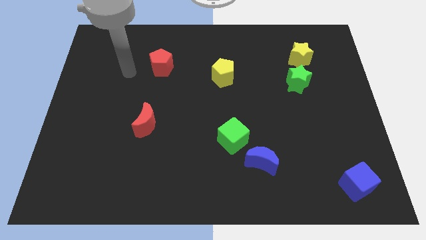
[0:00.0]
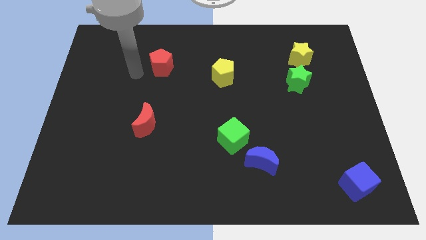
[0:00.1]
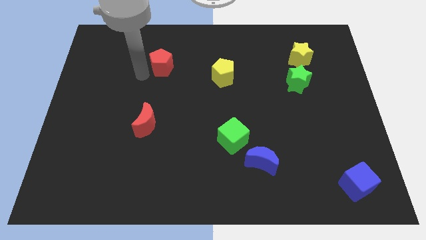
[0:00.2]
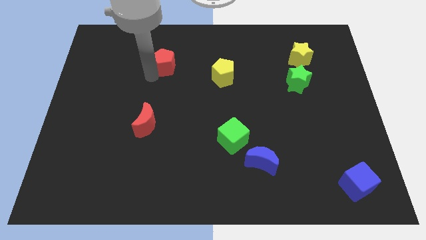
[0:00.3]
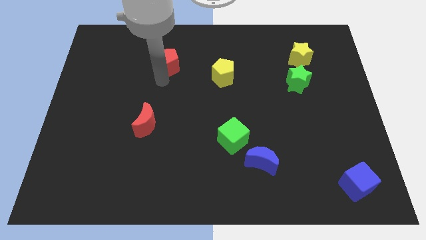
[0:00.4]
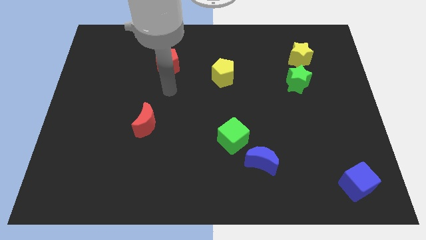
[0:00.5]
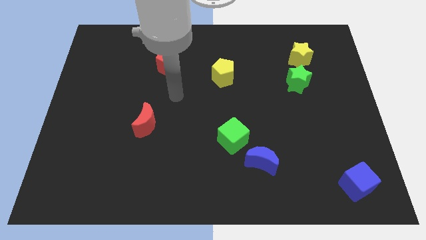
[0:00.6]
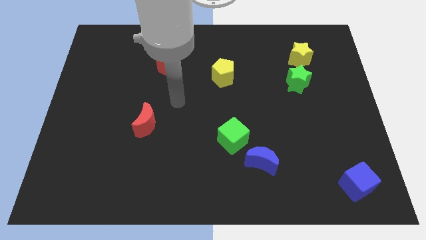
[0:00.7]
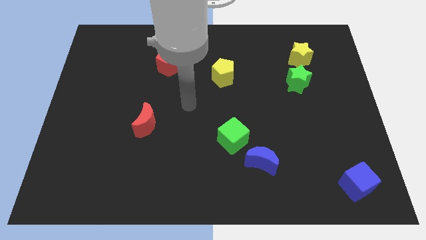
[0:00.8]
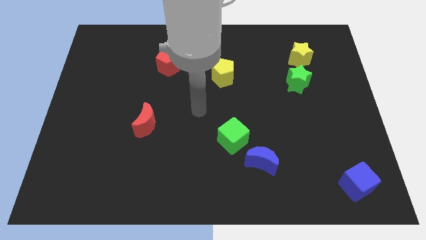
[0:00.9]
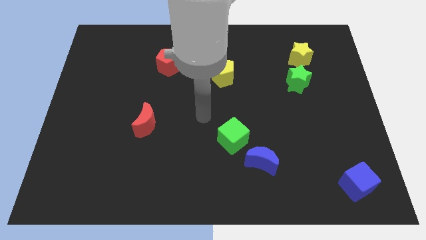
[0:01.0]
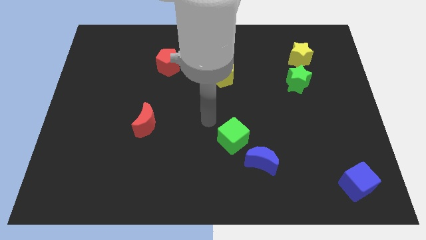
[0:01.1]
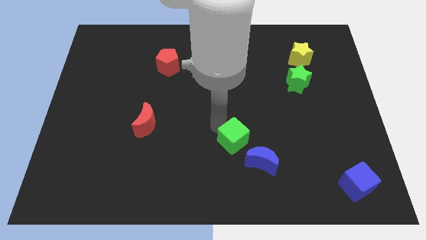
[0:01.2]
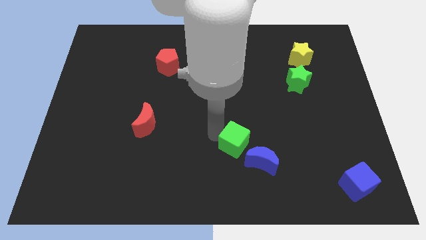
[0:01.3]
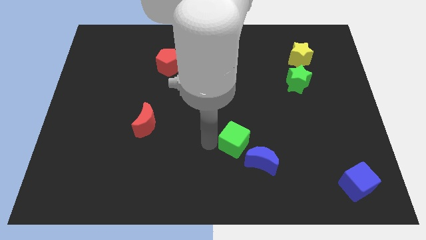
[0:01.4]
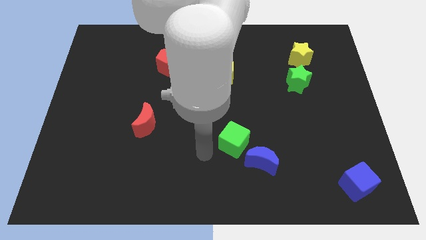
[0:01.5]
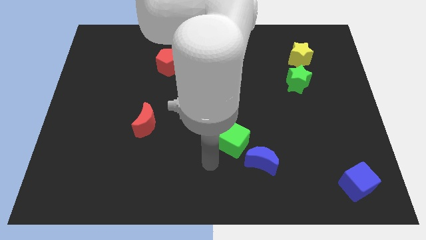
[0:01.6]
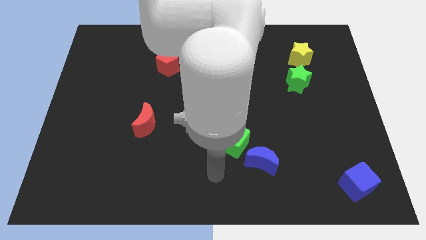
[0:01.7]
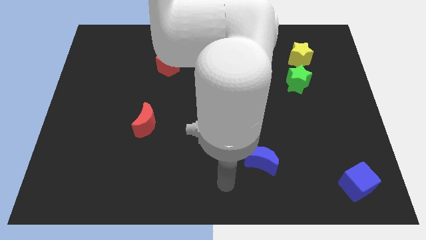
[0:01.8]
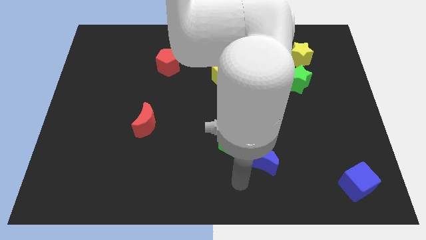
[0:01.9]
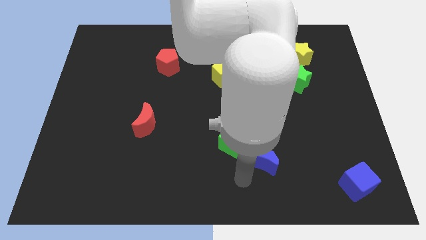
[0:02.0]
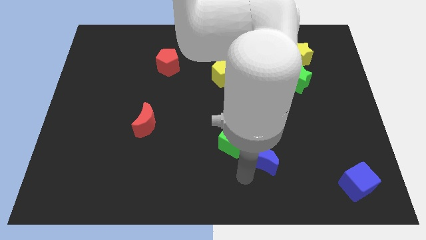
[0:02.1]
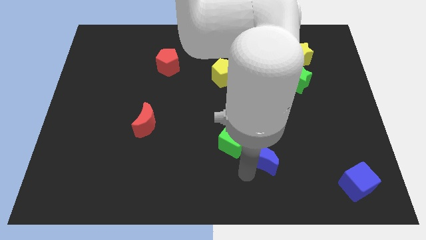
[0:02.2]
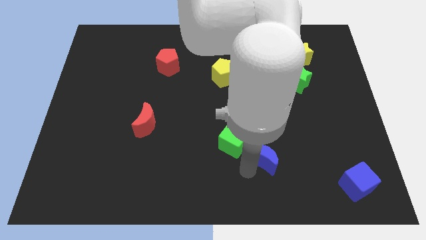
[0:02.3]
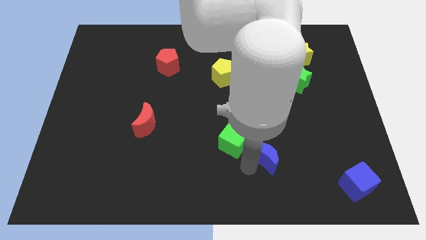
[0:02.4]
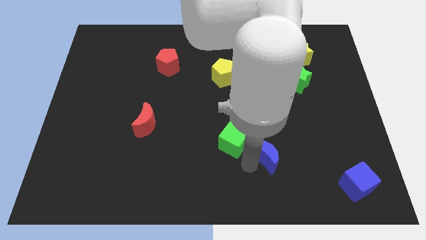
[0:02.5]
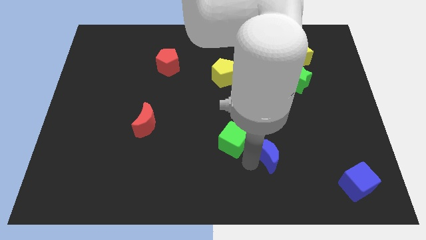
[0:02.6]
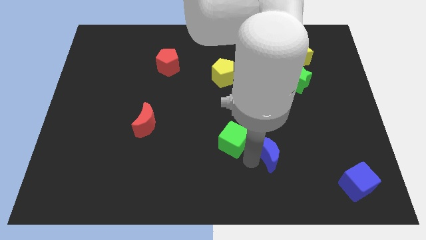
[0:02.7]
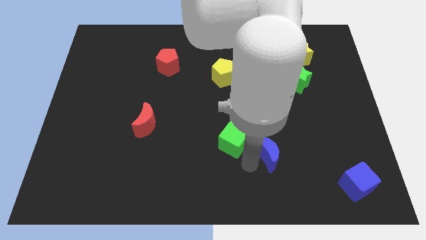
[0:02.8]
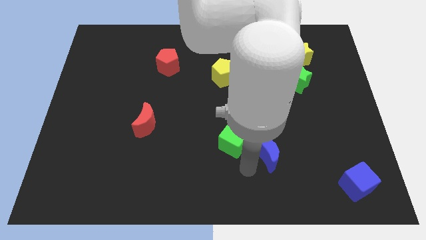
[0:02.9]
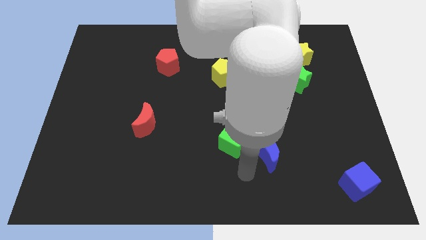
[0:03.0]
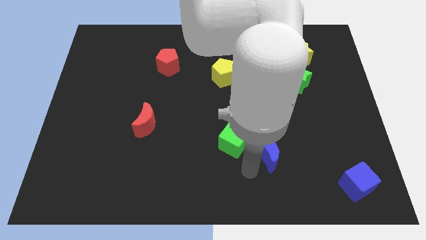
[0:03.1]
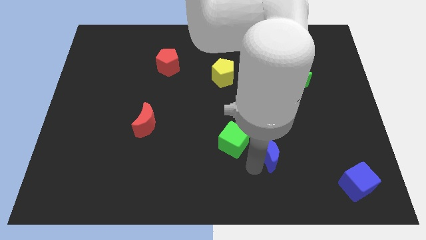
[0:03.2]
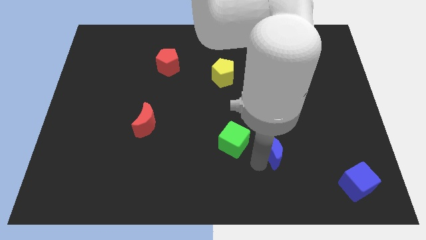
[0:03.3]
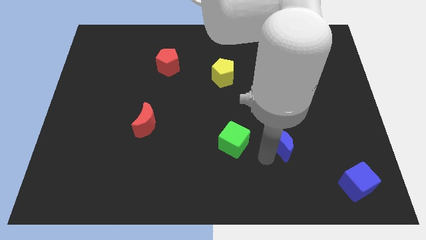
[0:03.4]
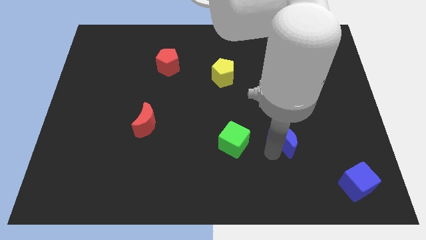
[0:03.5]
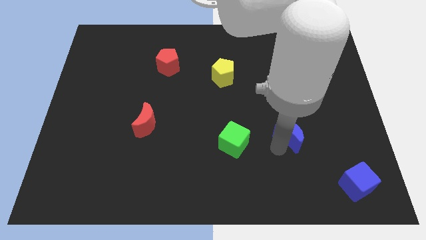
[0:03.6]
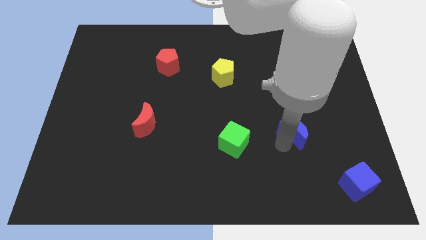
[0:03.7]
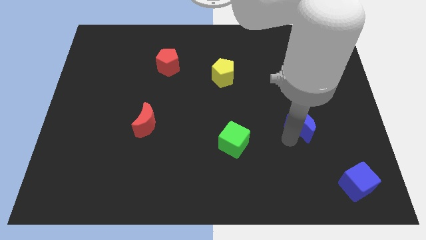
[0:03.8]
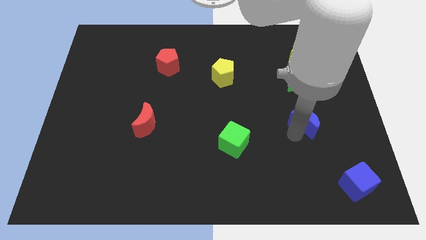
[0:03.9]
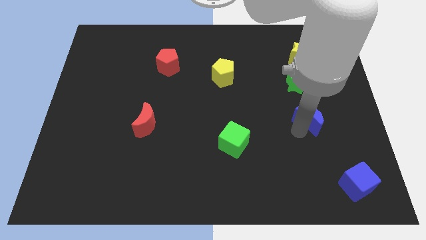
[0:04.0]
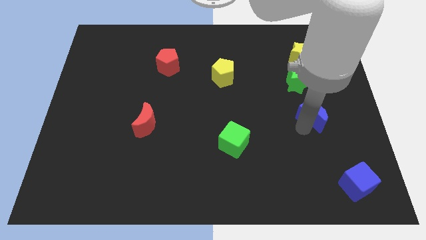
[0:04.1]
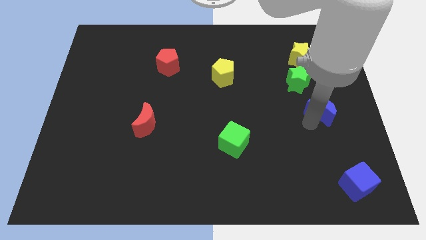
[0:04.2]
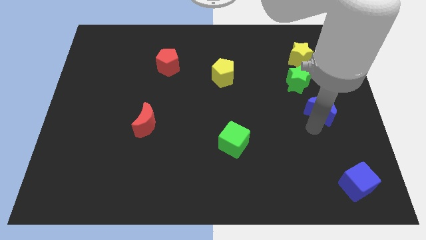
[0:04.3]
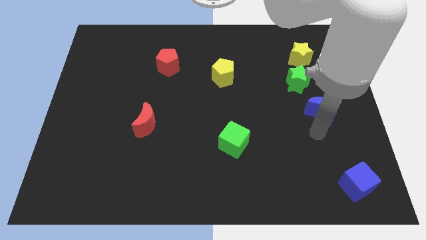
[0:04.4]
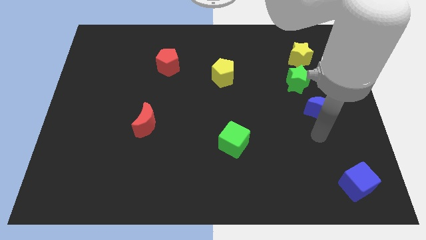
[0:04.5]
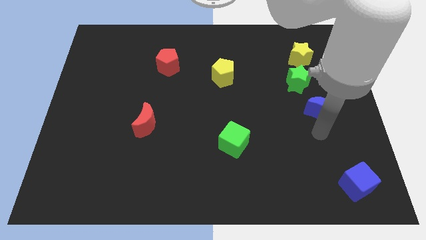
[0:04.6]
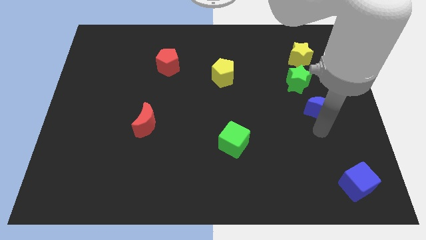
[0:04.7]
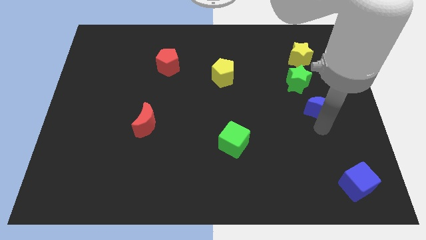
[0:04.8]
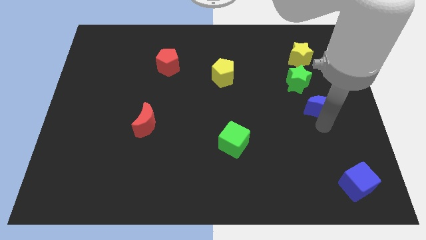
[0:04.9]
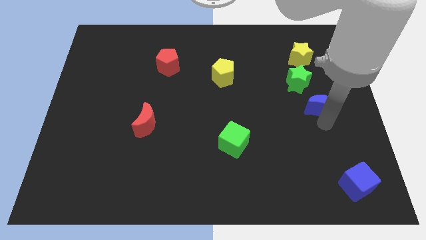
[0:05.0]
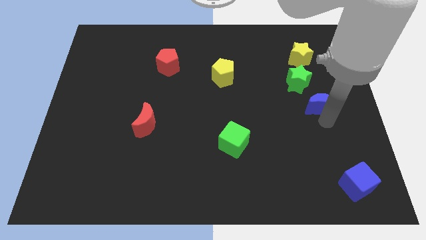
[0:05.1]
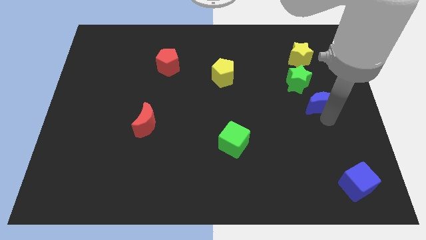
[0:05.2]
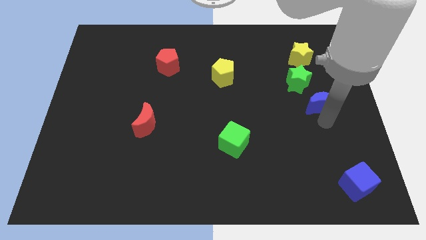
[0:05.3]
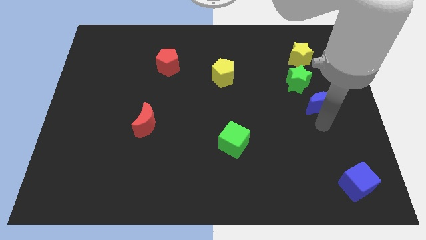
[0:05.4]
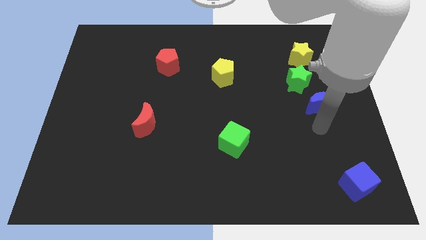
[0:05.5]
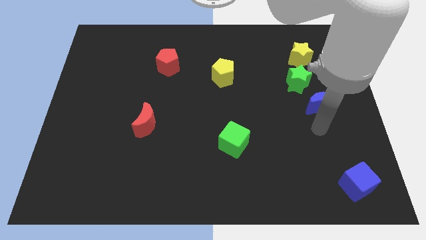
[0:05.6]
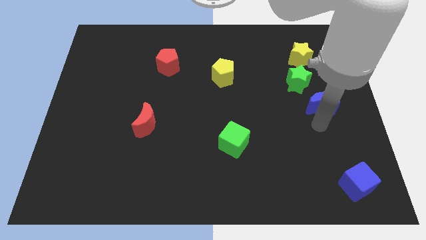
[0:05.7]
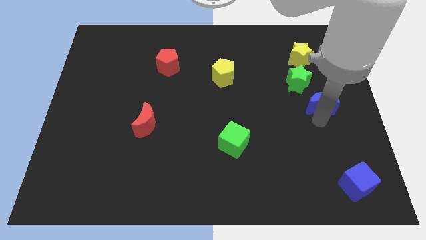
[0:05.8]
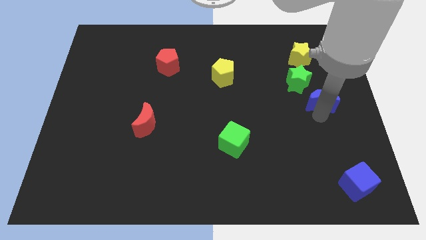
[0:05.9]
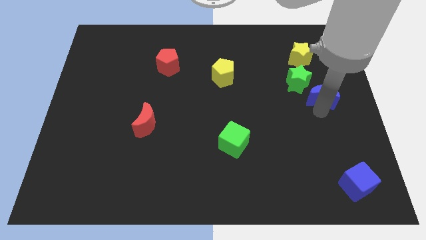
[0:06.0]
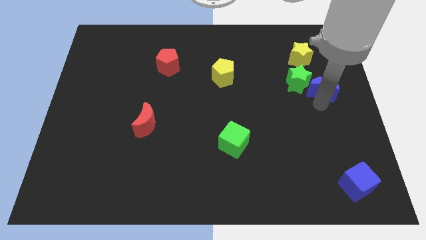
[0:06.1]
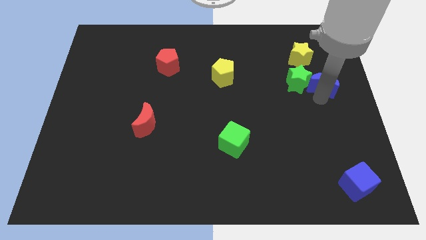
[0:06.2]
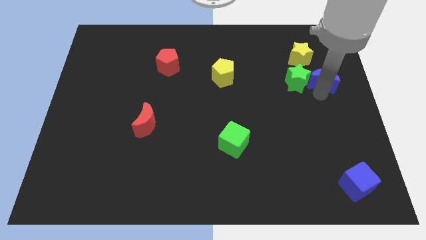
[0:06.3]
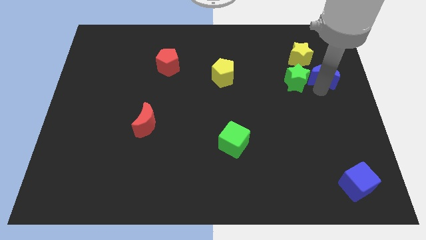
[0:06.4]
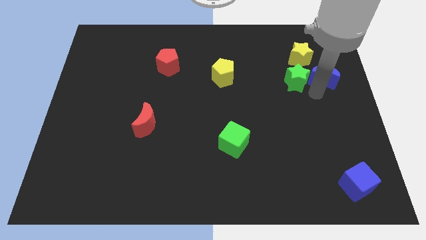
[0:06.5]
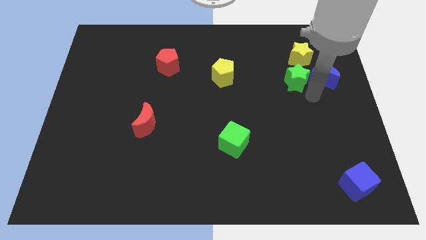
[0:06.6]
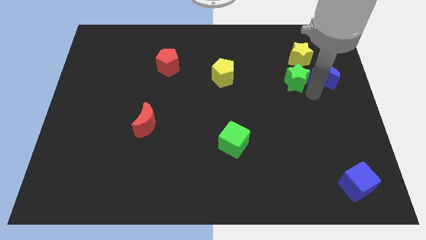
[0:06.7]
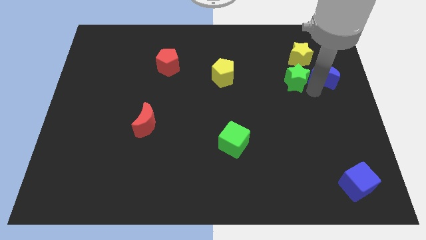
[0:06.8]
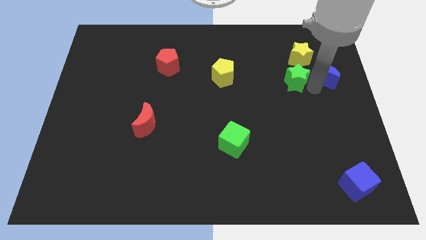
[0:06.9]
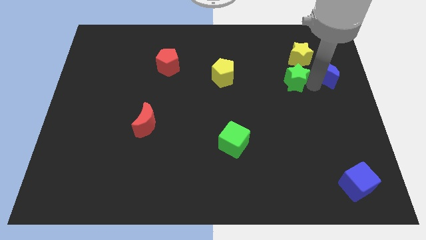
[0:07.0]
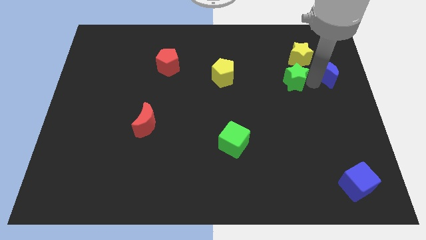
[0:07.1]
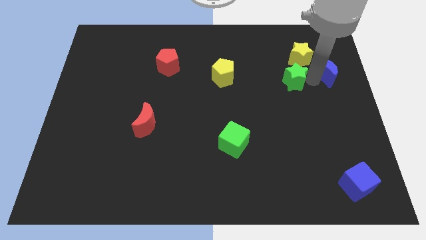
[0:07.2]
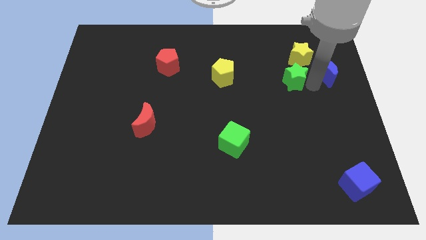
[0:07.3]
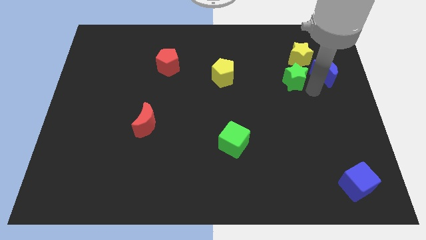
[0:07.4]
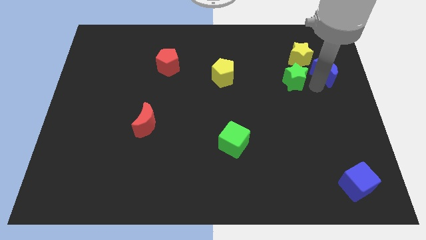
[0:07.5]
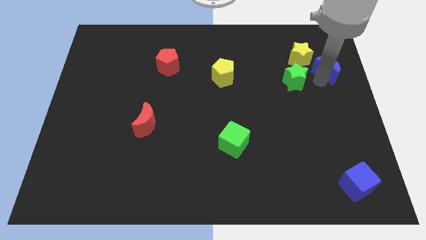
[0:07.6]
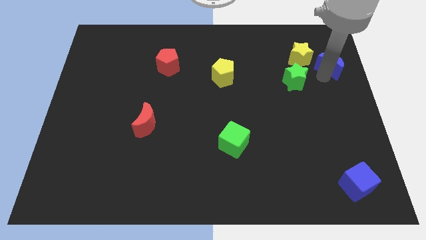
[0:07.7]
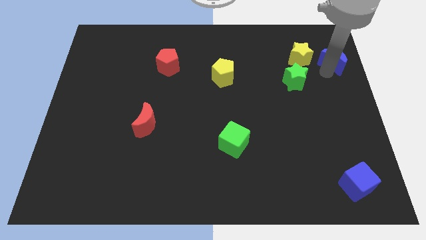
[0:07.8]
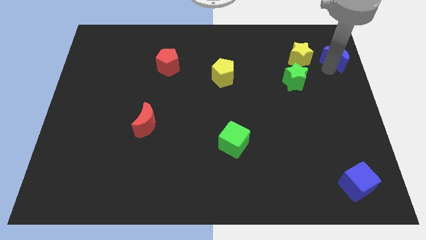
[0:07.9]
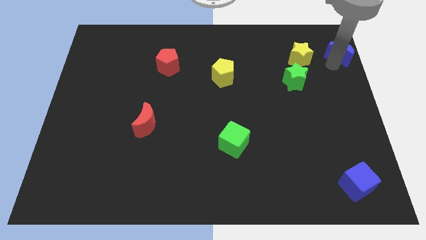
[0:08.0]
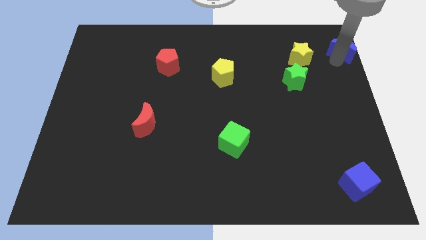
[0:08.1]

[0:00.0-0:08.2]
move the blue moon to the top right of the board
